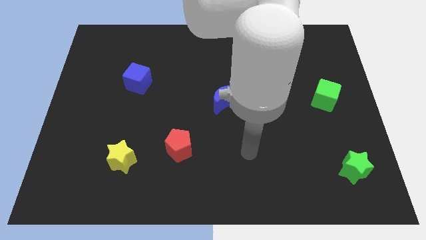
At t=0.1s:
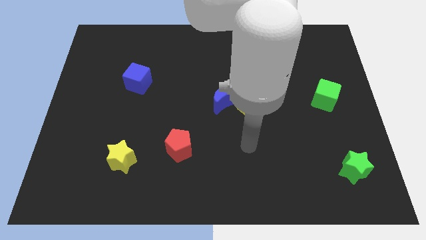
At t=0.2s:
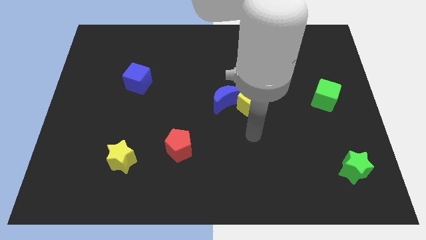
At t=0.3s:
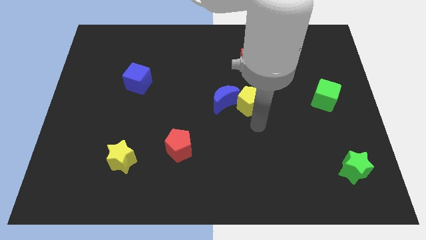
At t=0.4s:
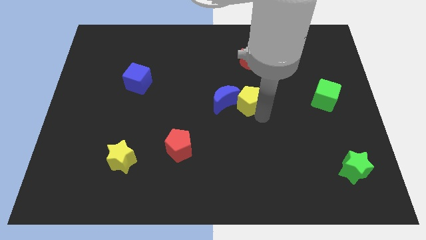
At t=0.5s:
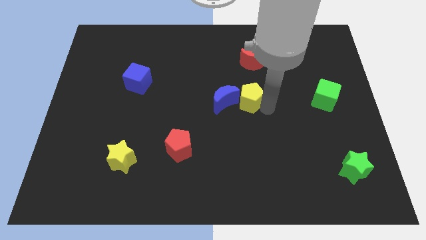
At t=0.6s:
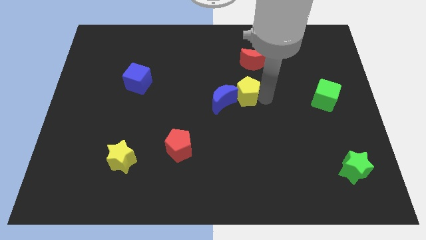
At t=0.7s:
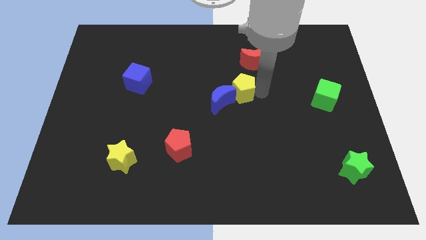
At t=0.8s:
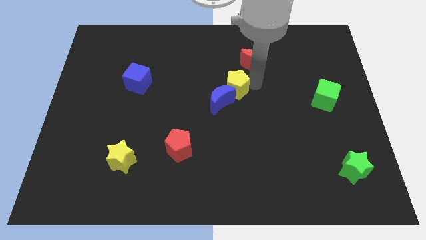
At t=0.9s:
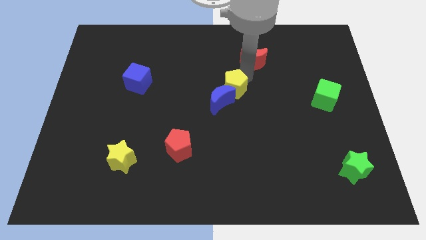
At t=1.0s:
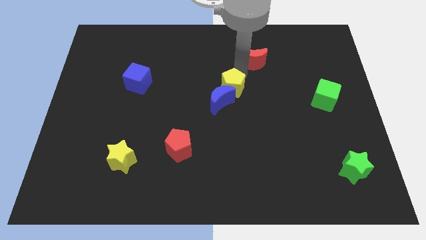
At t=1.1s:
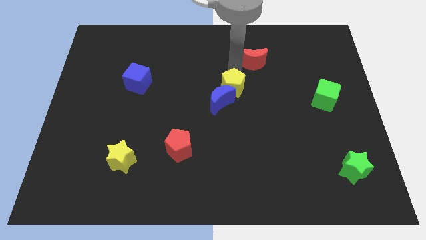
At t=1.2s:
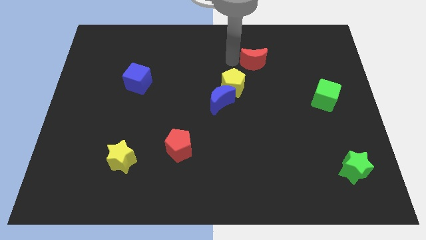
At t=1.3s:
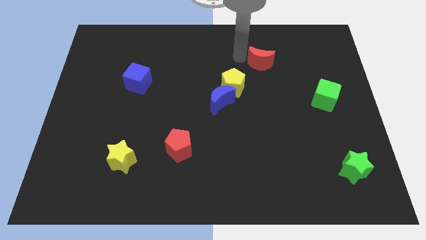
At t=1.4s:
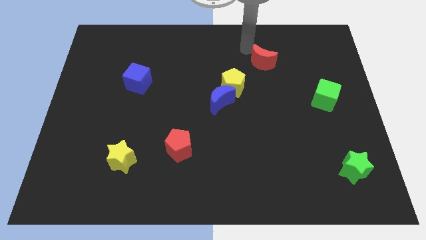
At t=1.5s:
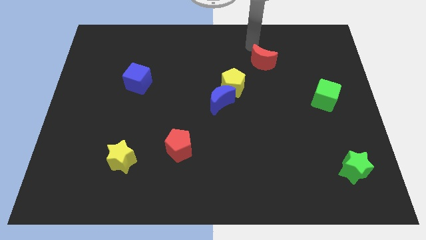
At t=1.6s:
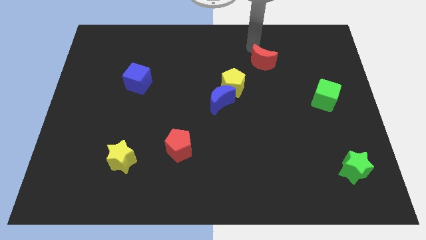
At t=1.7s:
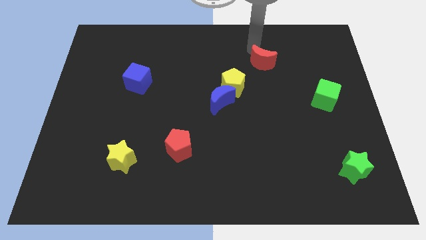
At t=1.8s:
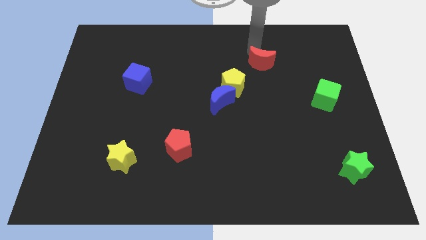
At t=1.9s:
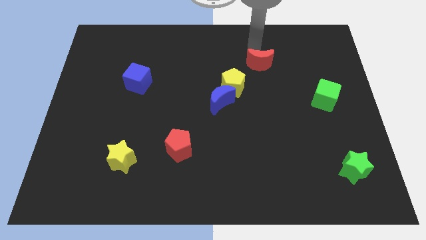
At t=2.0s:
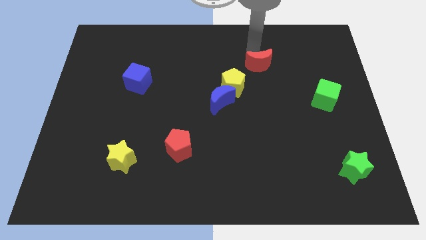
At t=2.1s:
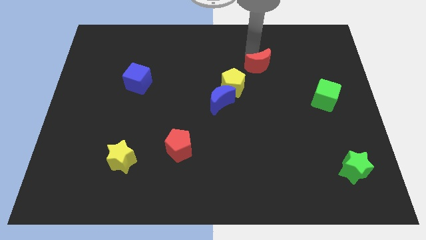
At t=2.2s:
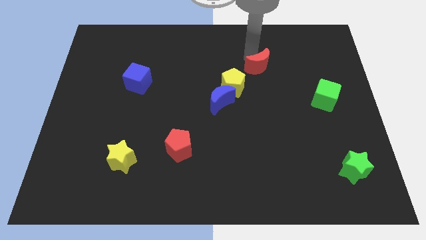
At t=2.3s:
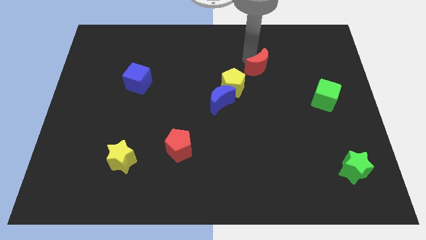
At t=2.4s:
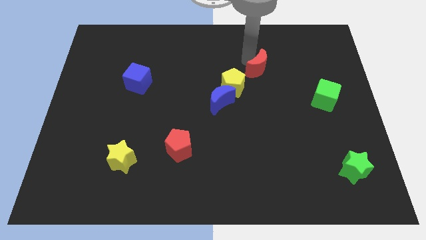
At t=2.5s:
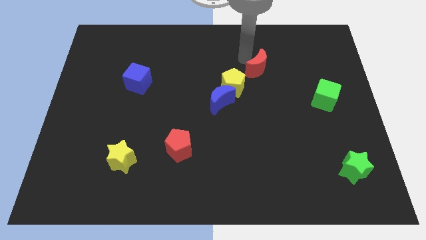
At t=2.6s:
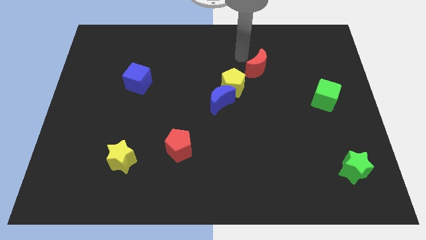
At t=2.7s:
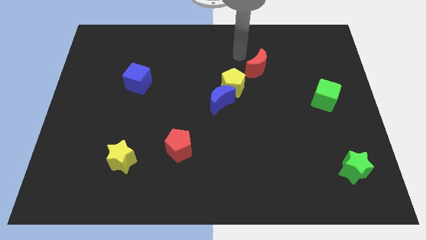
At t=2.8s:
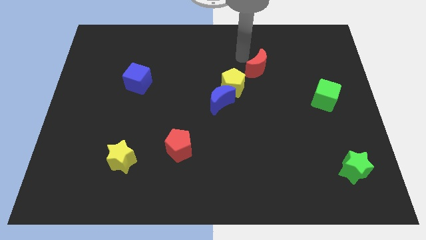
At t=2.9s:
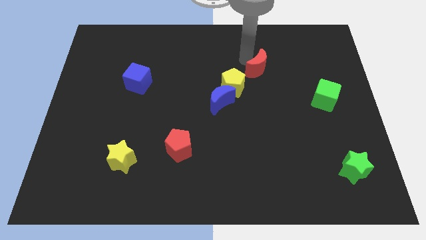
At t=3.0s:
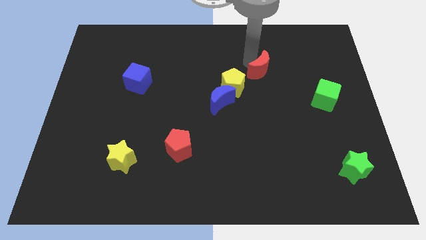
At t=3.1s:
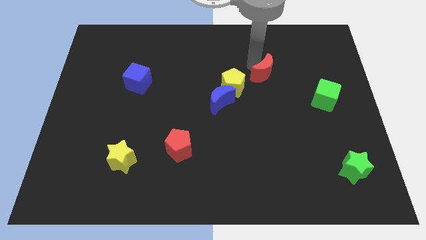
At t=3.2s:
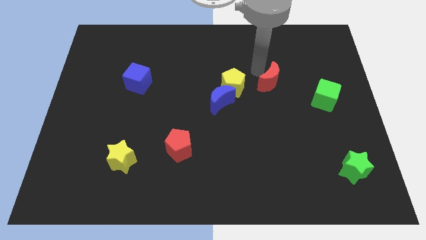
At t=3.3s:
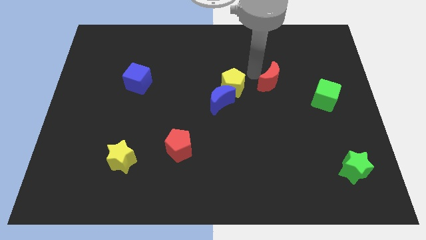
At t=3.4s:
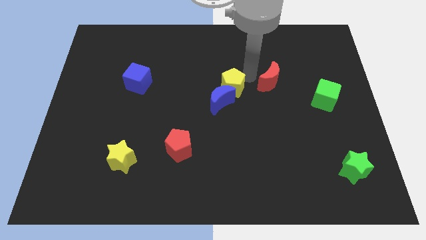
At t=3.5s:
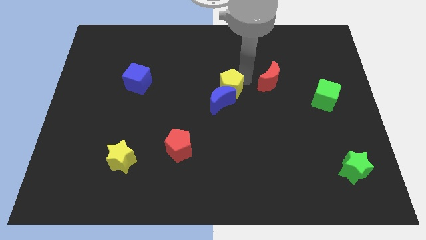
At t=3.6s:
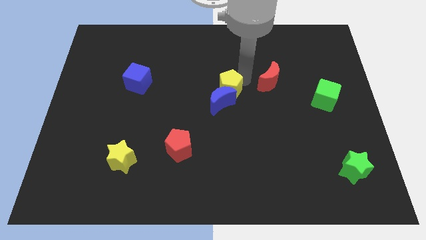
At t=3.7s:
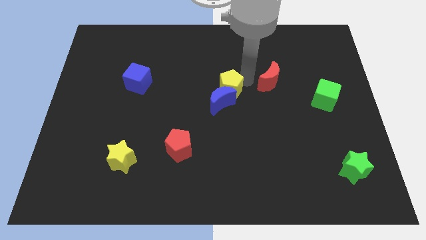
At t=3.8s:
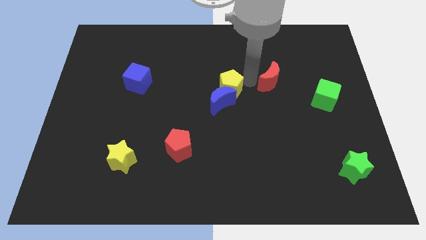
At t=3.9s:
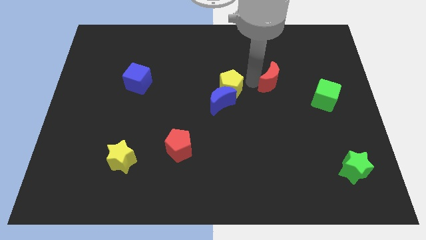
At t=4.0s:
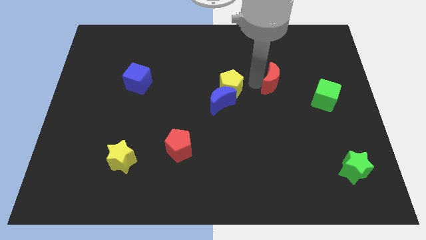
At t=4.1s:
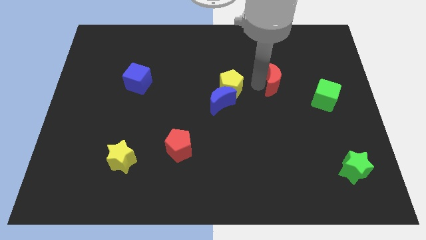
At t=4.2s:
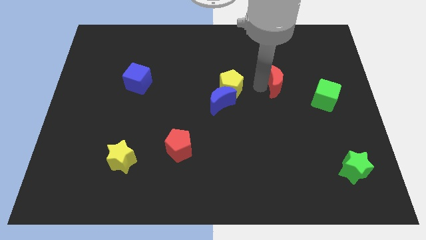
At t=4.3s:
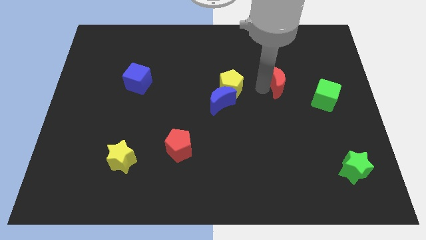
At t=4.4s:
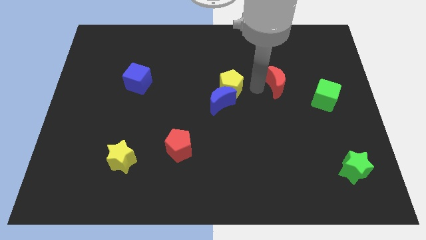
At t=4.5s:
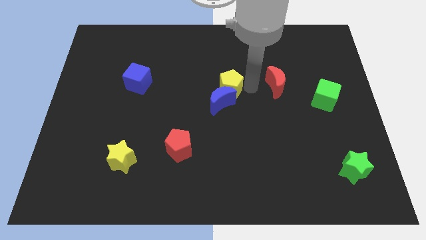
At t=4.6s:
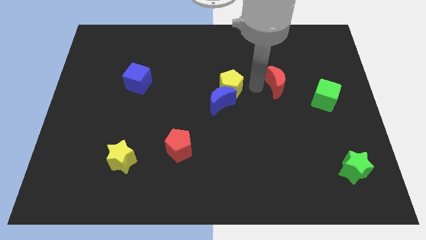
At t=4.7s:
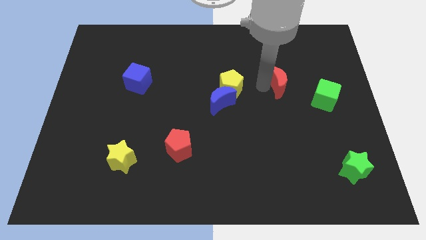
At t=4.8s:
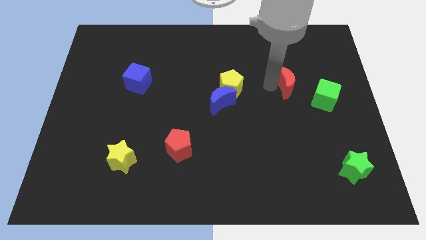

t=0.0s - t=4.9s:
put the red moon diagonally up and to the left of the green cube

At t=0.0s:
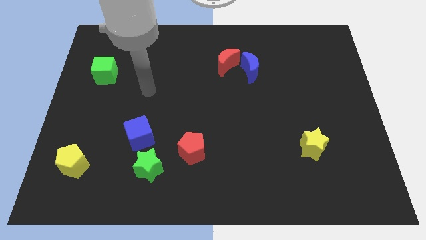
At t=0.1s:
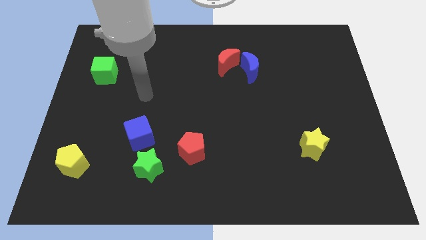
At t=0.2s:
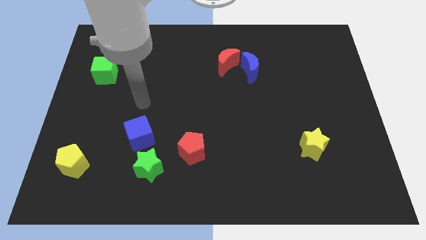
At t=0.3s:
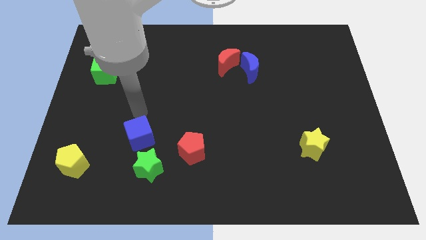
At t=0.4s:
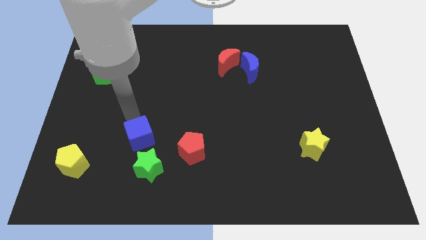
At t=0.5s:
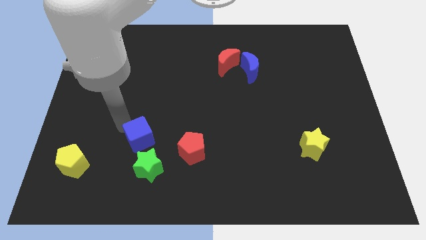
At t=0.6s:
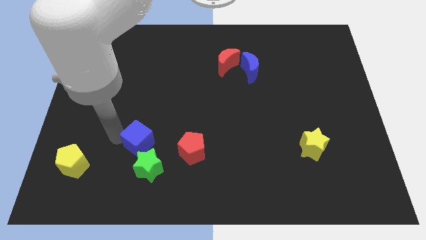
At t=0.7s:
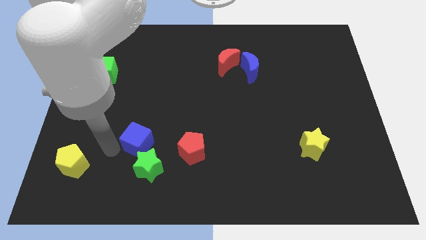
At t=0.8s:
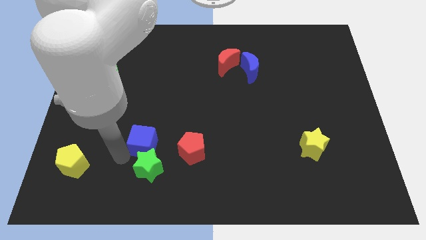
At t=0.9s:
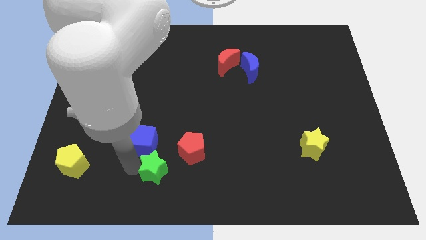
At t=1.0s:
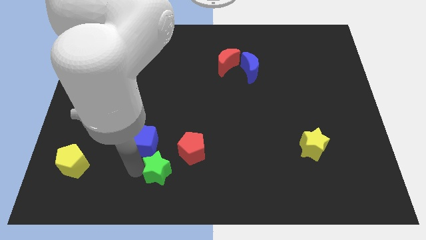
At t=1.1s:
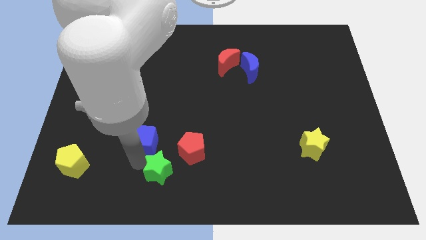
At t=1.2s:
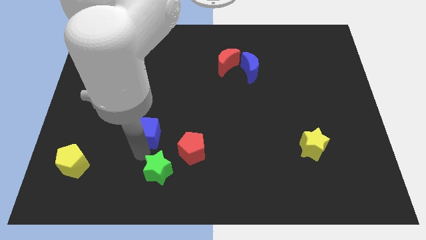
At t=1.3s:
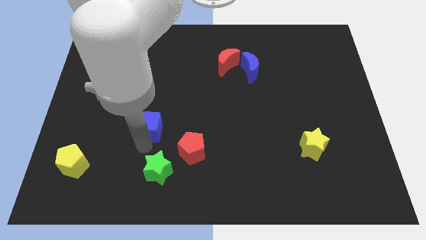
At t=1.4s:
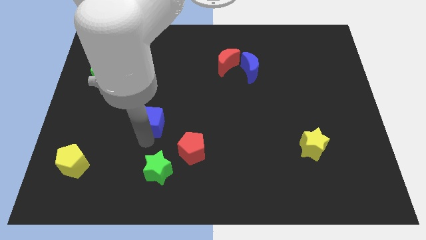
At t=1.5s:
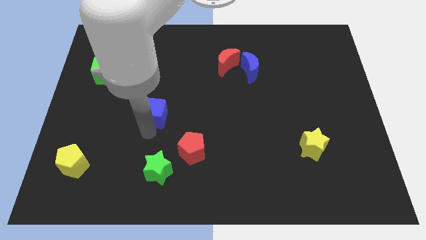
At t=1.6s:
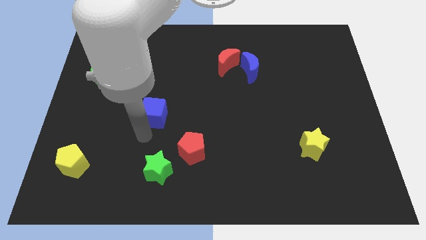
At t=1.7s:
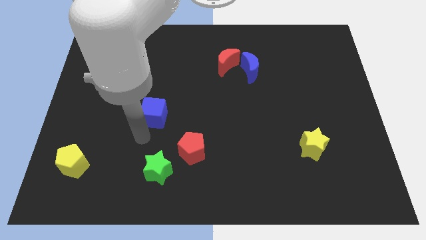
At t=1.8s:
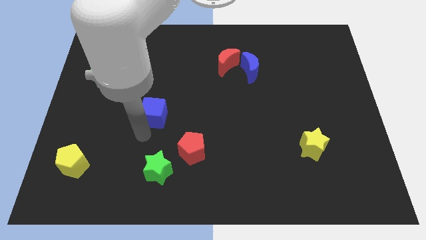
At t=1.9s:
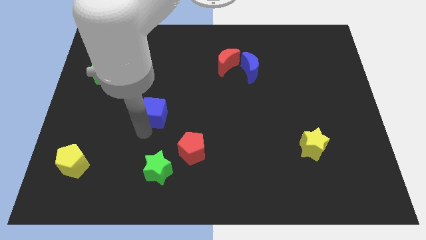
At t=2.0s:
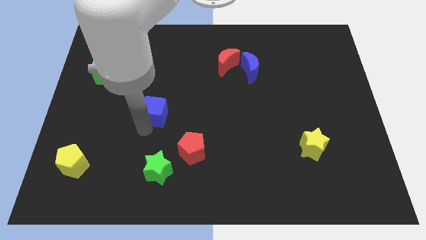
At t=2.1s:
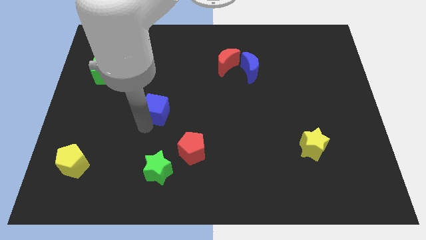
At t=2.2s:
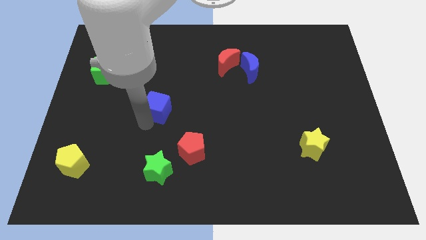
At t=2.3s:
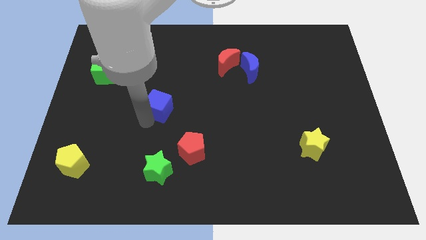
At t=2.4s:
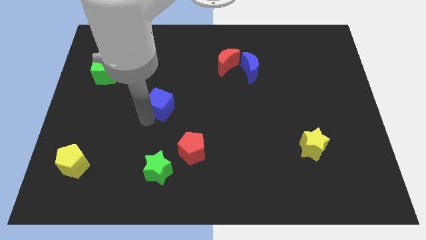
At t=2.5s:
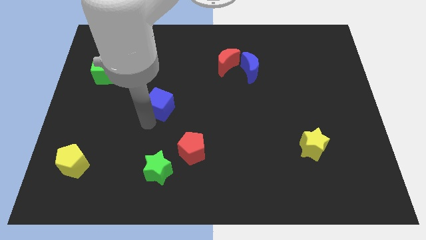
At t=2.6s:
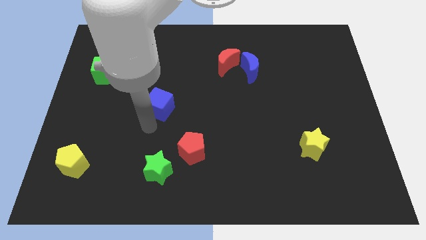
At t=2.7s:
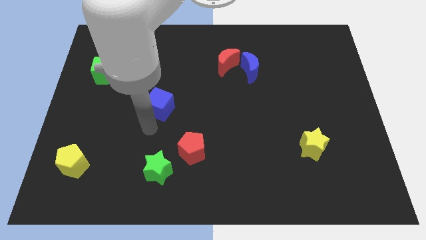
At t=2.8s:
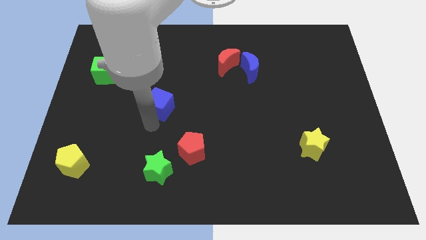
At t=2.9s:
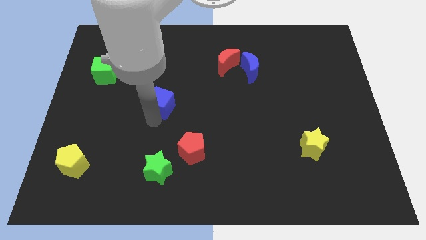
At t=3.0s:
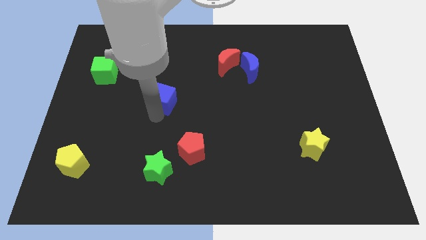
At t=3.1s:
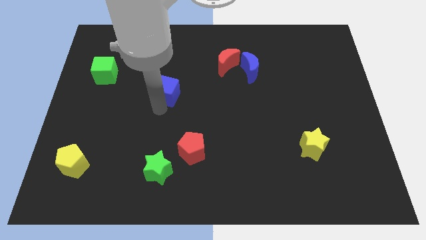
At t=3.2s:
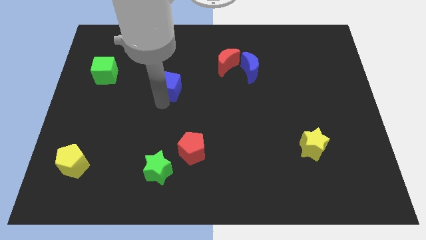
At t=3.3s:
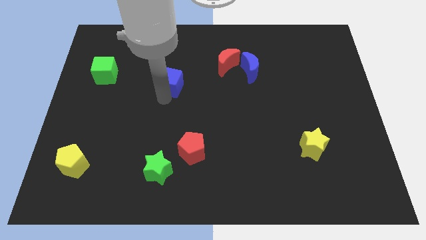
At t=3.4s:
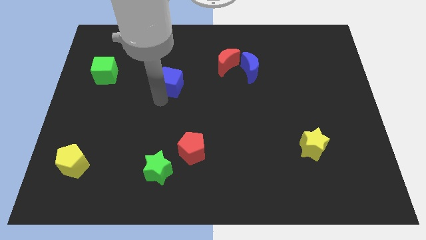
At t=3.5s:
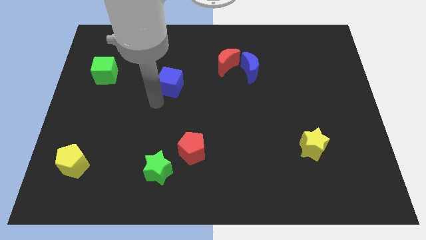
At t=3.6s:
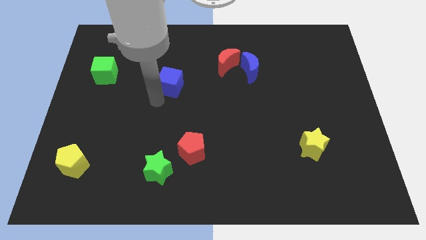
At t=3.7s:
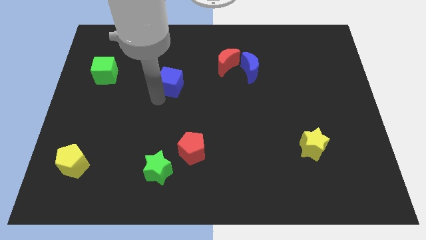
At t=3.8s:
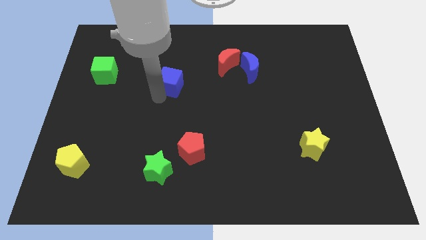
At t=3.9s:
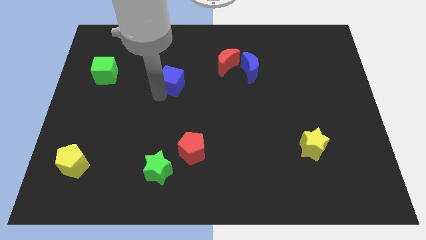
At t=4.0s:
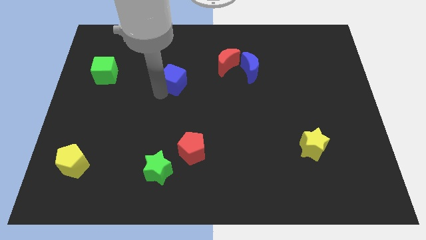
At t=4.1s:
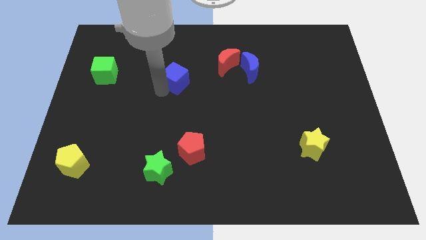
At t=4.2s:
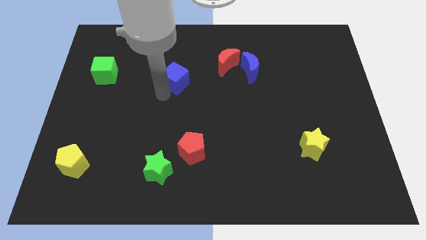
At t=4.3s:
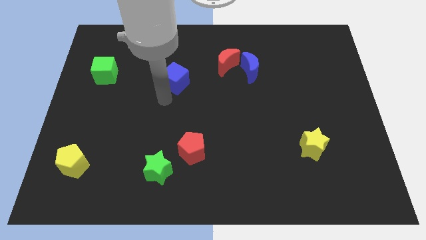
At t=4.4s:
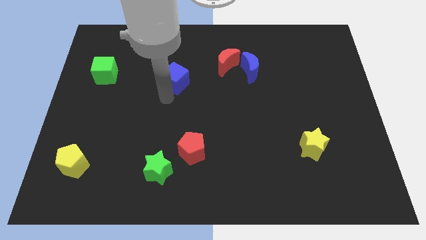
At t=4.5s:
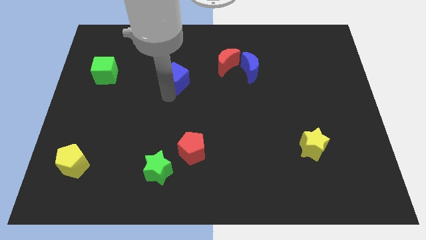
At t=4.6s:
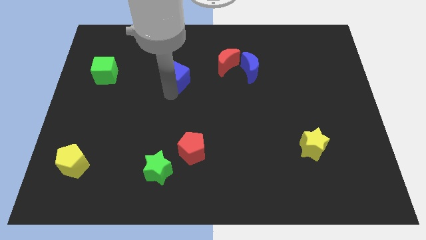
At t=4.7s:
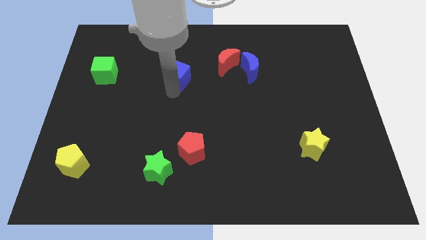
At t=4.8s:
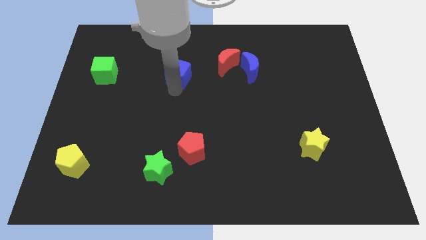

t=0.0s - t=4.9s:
push the blue cube to the left side of the red moon
